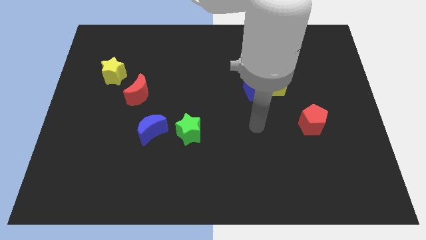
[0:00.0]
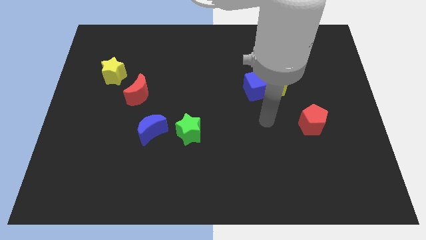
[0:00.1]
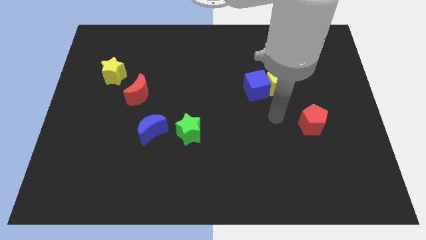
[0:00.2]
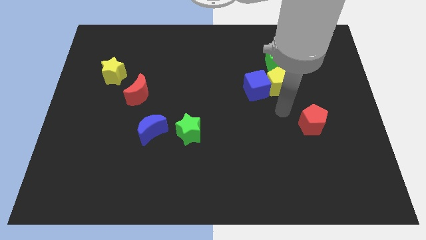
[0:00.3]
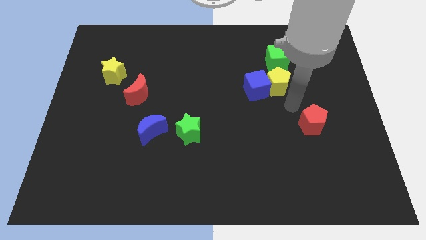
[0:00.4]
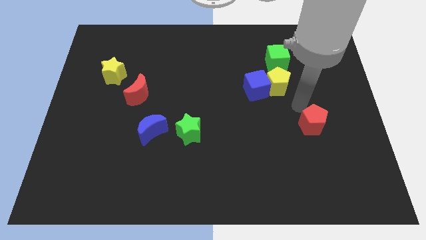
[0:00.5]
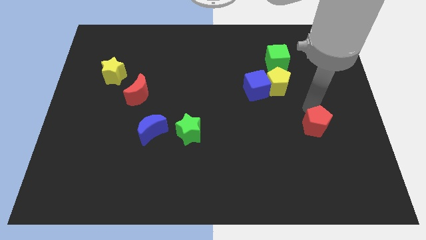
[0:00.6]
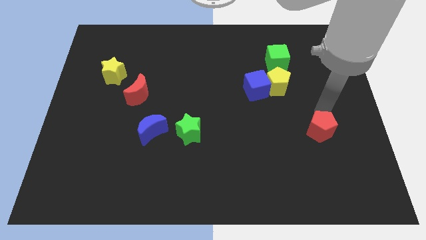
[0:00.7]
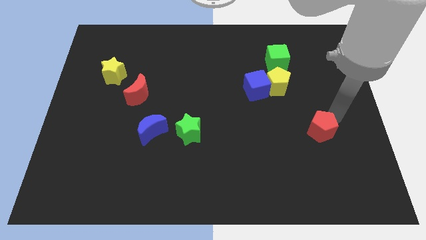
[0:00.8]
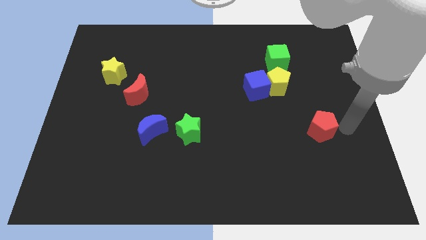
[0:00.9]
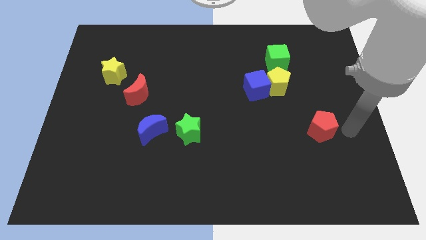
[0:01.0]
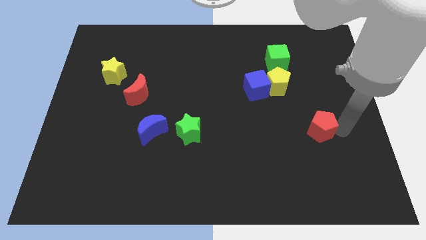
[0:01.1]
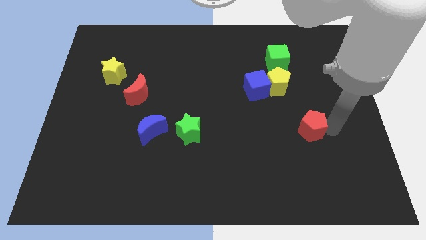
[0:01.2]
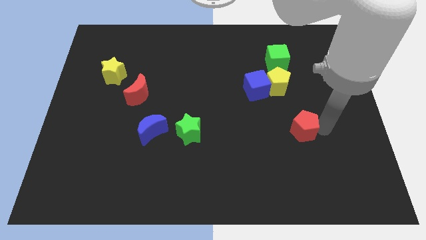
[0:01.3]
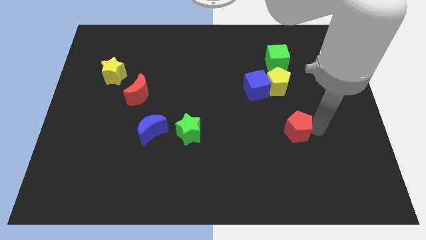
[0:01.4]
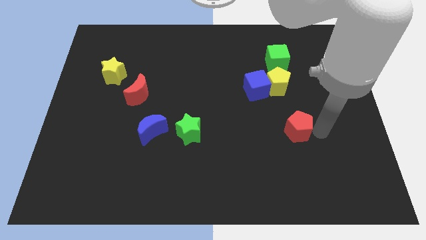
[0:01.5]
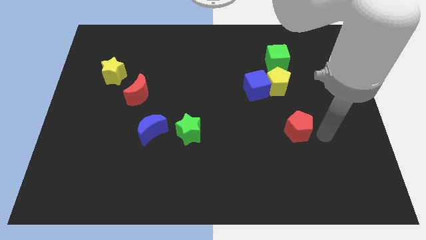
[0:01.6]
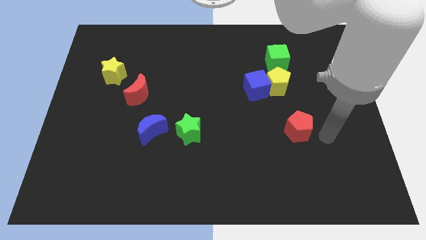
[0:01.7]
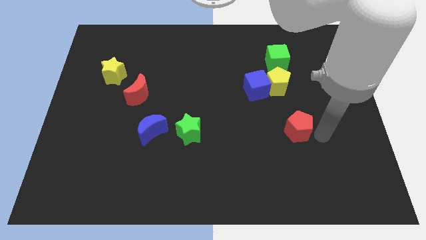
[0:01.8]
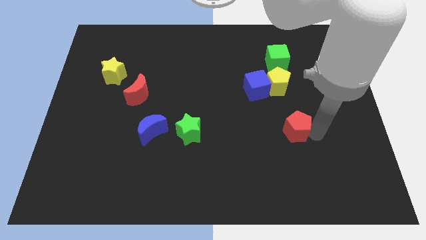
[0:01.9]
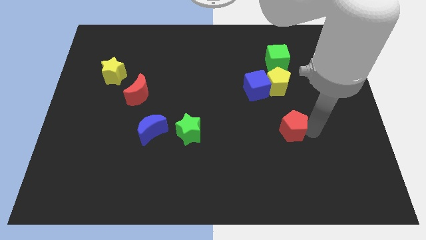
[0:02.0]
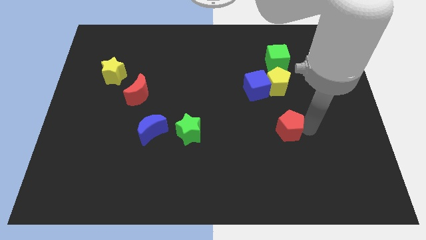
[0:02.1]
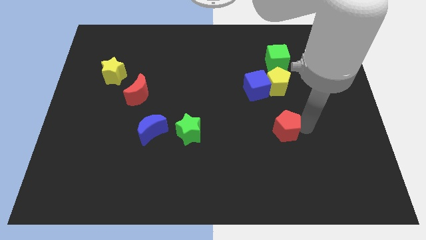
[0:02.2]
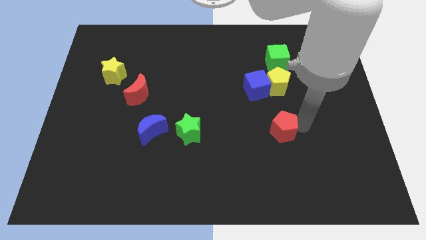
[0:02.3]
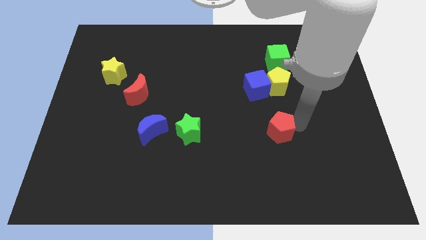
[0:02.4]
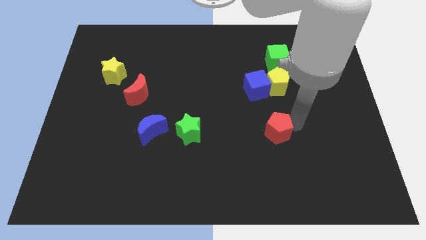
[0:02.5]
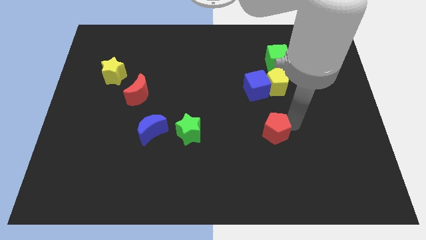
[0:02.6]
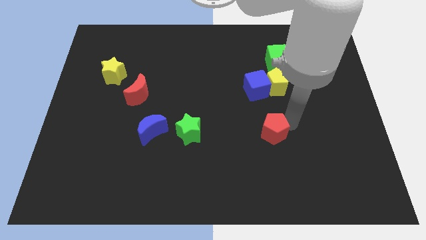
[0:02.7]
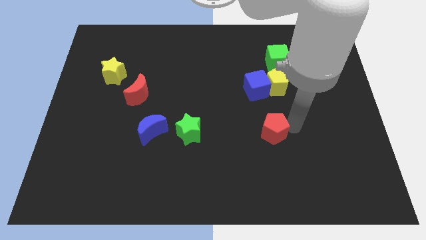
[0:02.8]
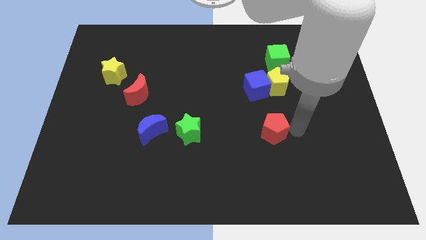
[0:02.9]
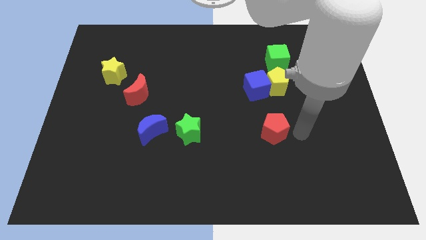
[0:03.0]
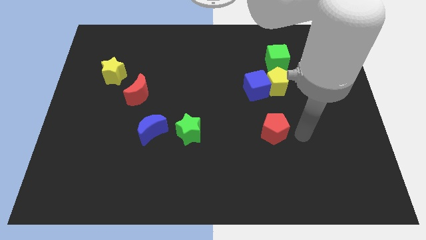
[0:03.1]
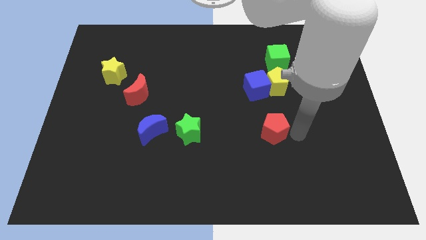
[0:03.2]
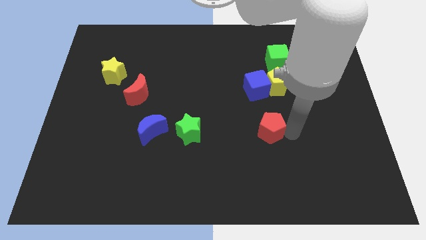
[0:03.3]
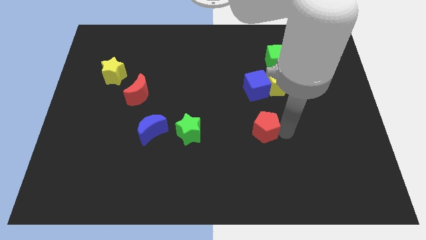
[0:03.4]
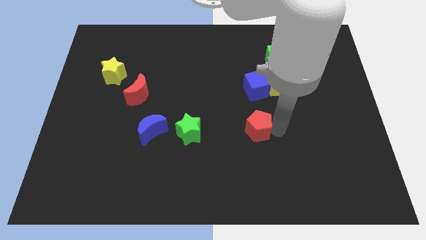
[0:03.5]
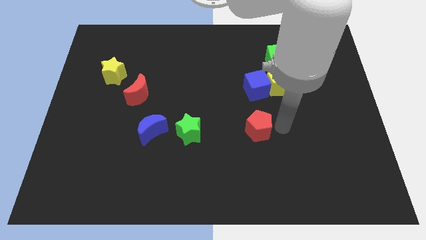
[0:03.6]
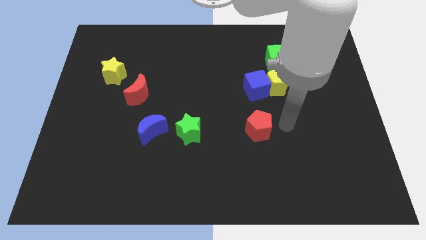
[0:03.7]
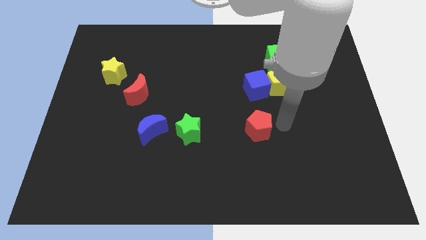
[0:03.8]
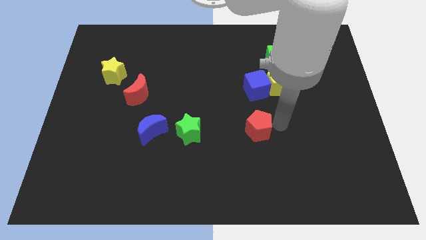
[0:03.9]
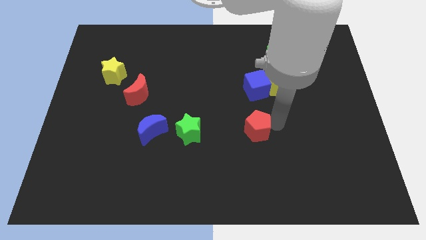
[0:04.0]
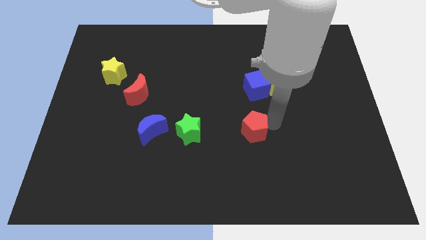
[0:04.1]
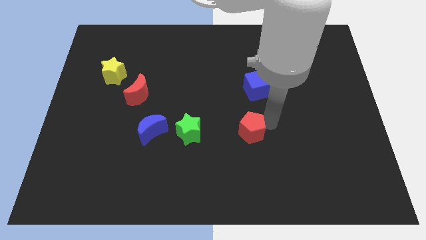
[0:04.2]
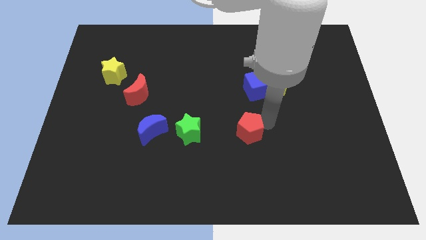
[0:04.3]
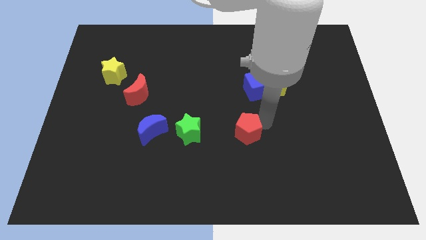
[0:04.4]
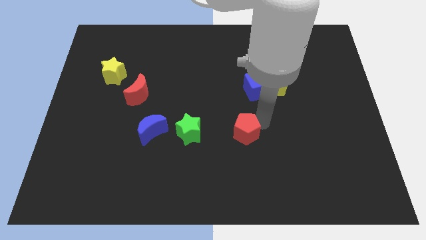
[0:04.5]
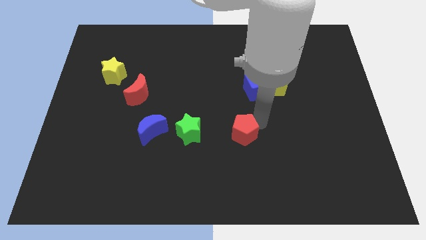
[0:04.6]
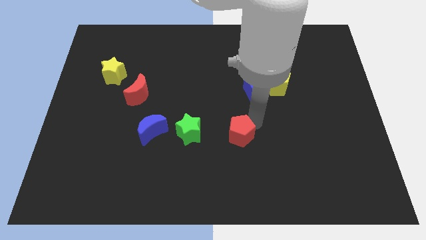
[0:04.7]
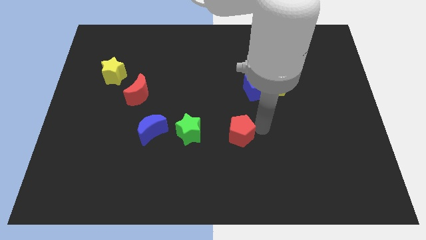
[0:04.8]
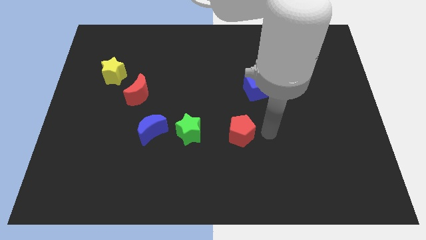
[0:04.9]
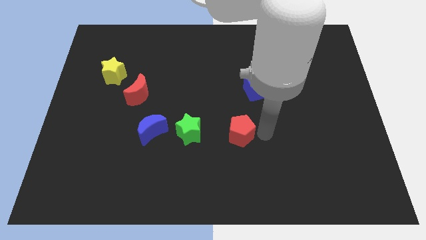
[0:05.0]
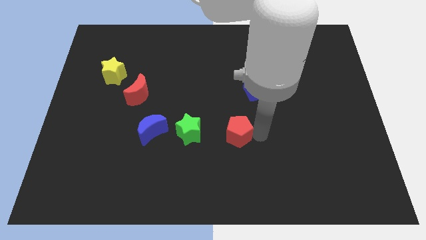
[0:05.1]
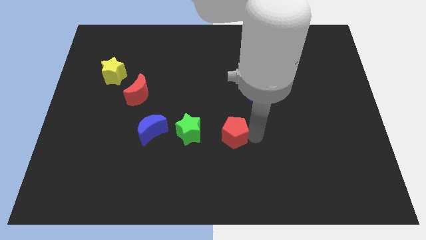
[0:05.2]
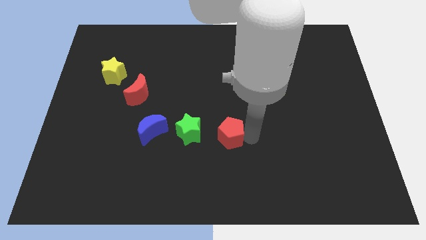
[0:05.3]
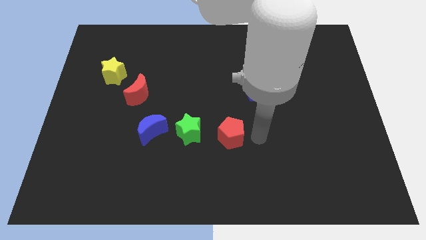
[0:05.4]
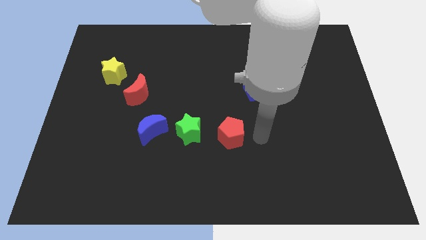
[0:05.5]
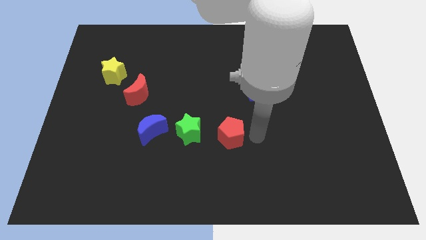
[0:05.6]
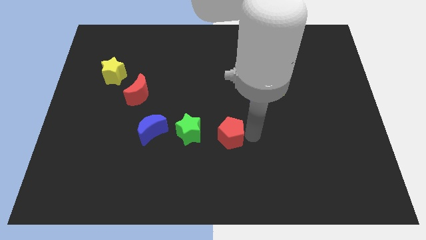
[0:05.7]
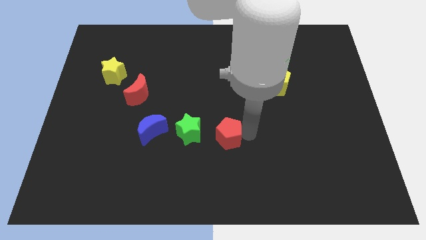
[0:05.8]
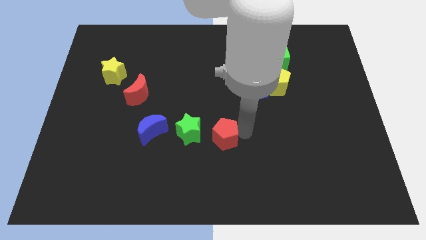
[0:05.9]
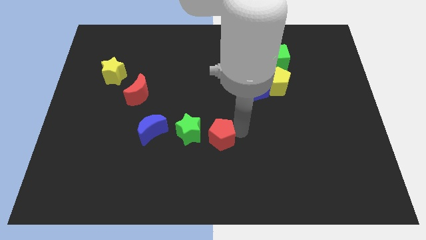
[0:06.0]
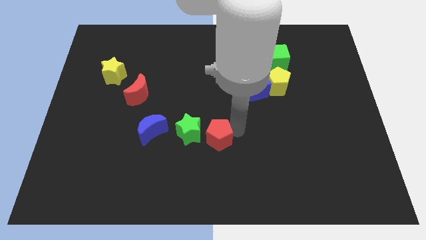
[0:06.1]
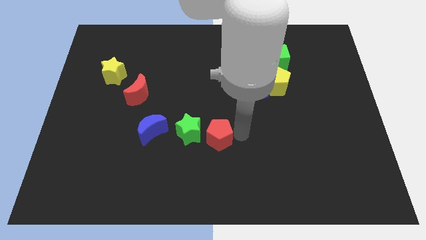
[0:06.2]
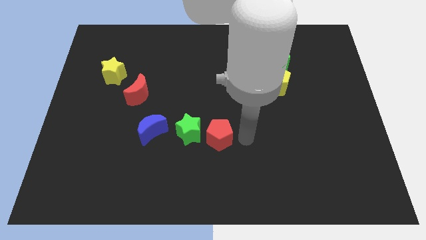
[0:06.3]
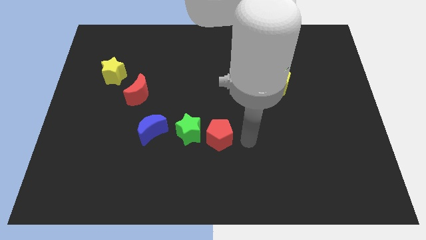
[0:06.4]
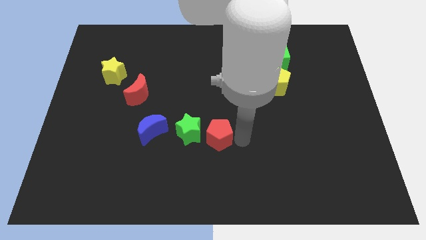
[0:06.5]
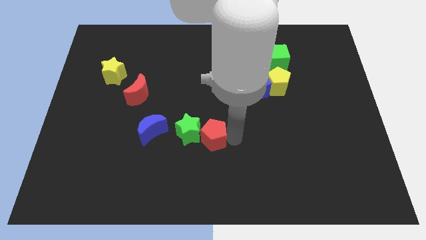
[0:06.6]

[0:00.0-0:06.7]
slide the red pentagon next to the green star

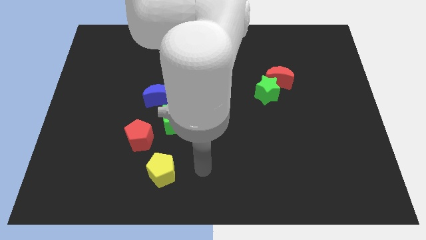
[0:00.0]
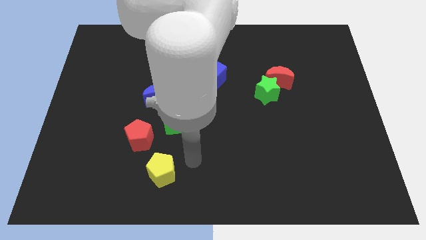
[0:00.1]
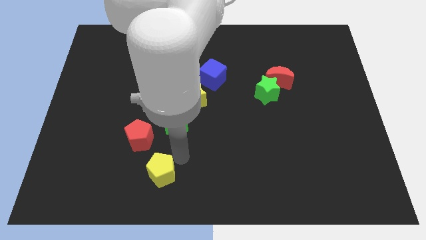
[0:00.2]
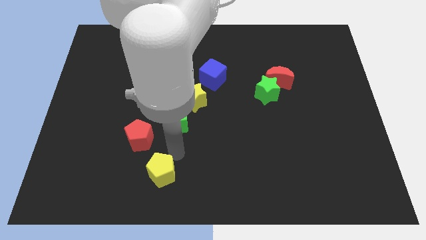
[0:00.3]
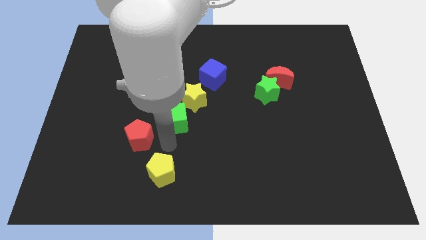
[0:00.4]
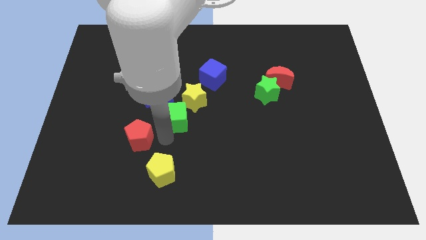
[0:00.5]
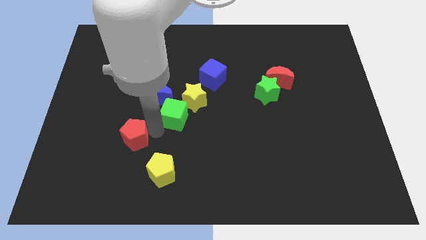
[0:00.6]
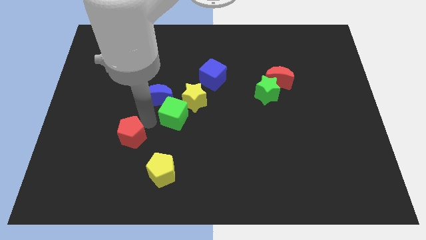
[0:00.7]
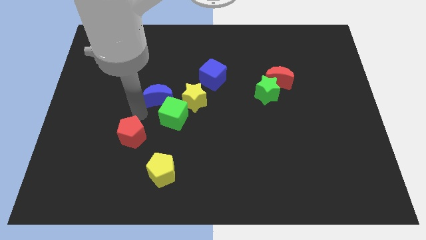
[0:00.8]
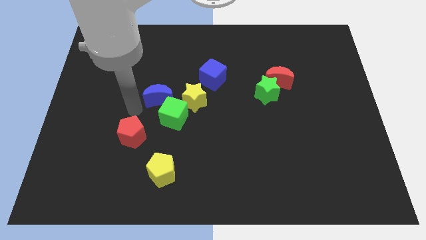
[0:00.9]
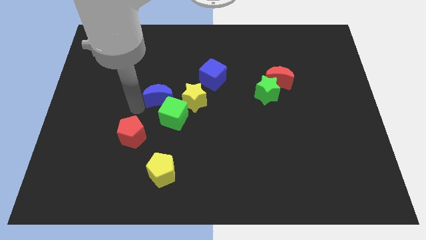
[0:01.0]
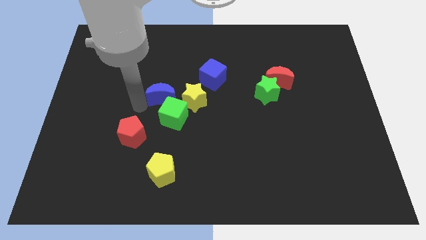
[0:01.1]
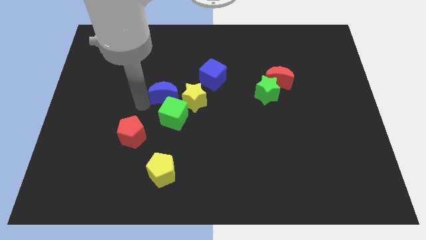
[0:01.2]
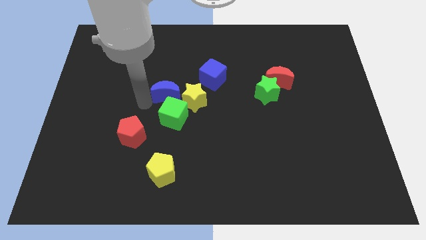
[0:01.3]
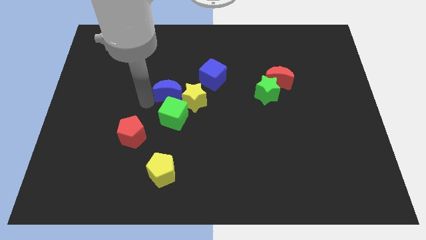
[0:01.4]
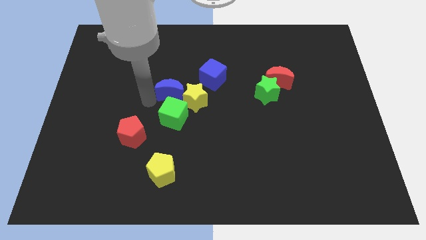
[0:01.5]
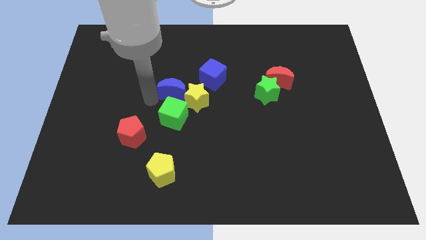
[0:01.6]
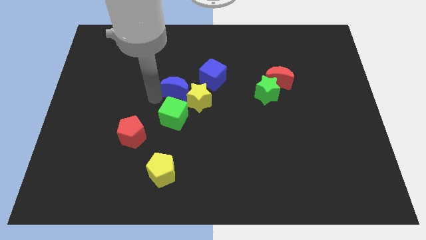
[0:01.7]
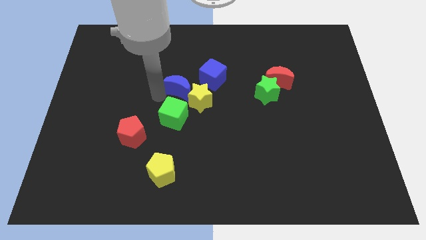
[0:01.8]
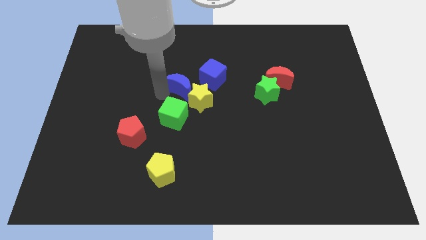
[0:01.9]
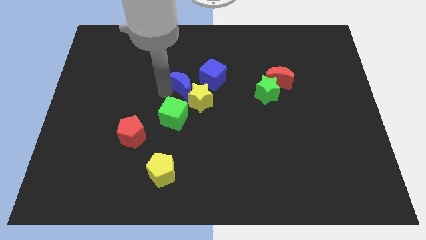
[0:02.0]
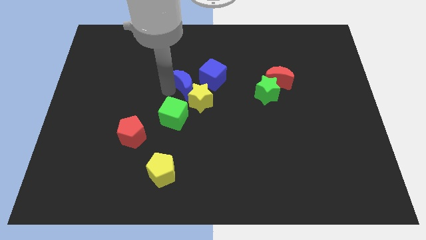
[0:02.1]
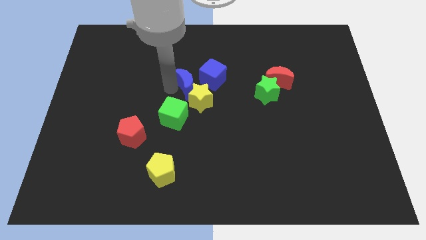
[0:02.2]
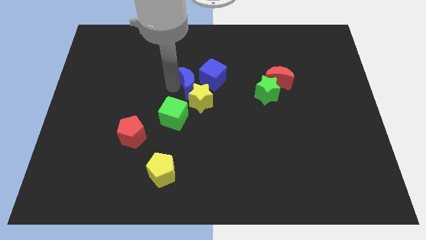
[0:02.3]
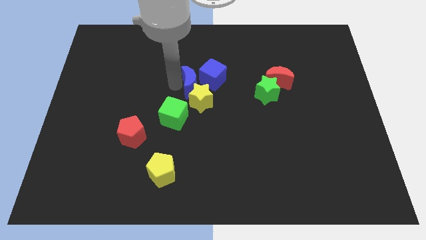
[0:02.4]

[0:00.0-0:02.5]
push the blue moon next to the blue cube
